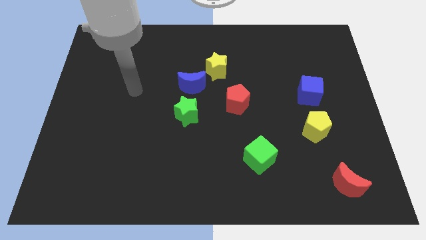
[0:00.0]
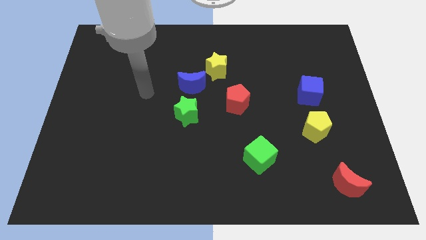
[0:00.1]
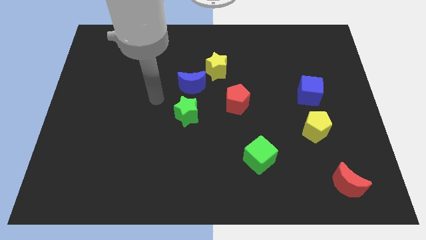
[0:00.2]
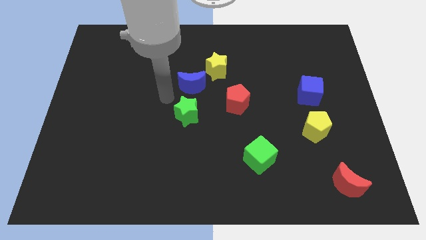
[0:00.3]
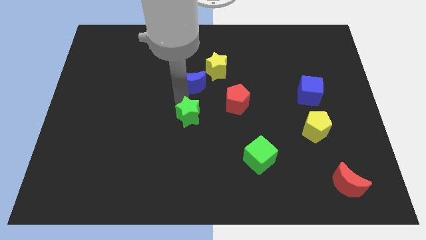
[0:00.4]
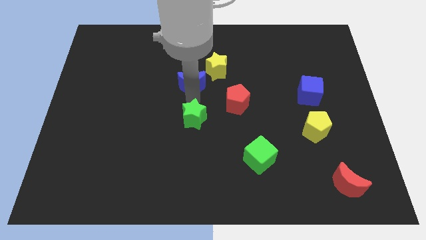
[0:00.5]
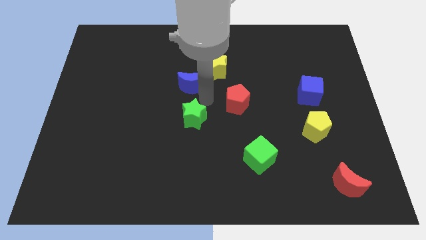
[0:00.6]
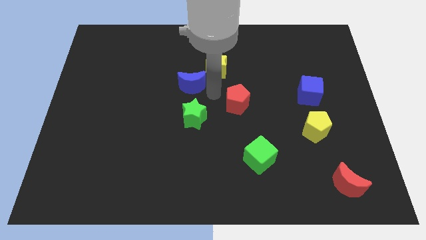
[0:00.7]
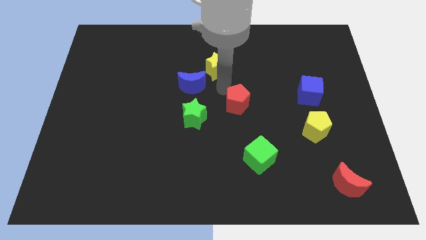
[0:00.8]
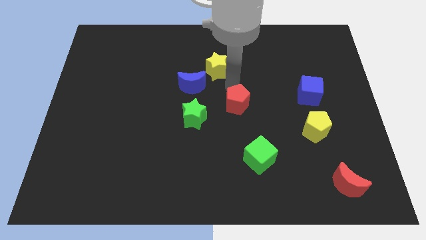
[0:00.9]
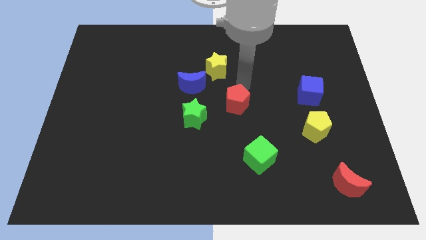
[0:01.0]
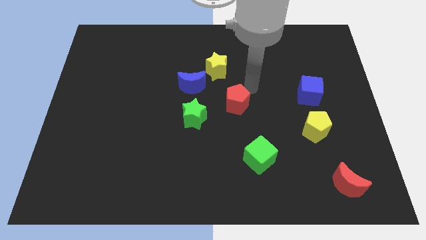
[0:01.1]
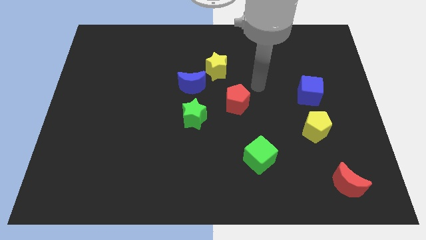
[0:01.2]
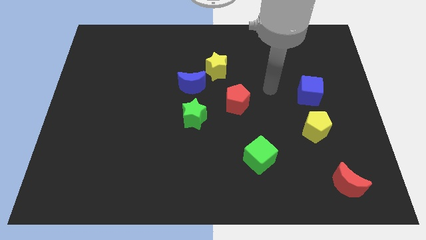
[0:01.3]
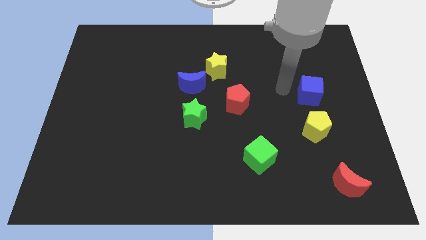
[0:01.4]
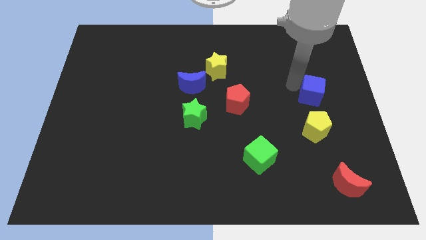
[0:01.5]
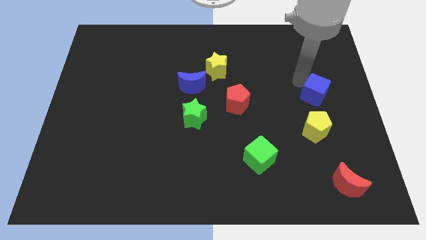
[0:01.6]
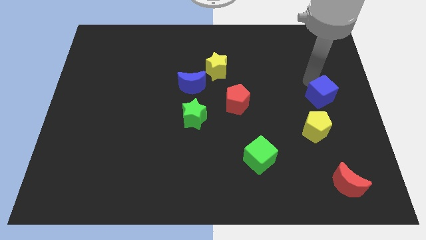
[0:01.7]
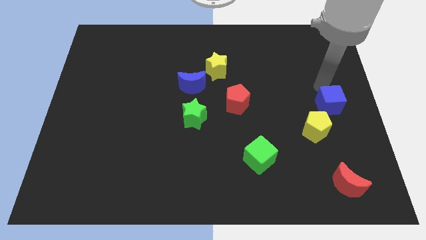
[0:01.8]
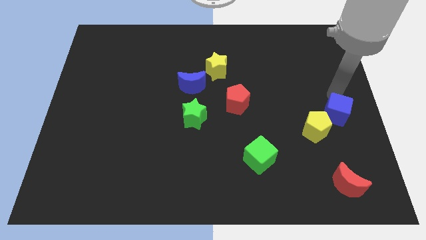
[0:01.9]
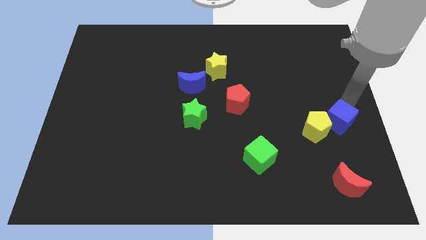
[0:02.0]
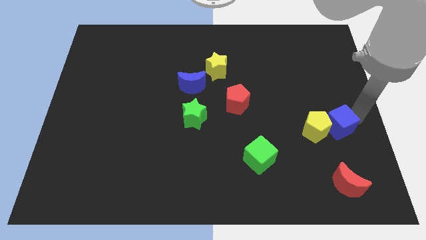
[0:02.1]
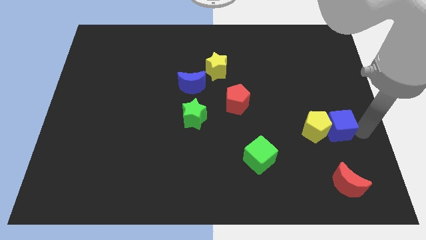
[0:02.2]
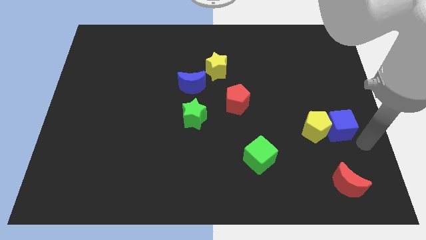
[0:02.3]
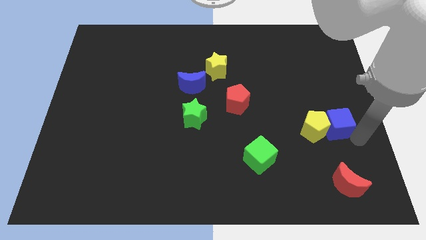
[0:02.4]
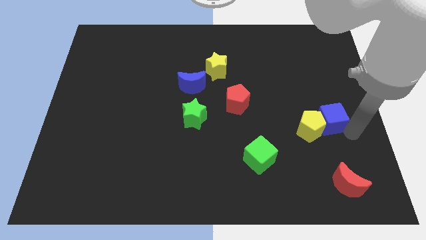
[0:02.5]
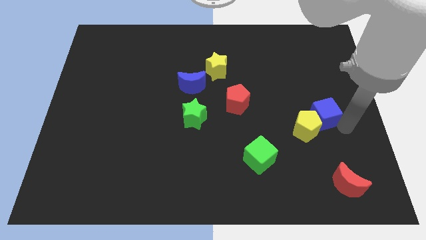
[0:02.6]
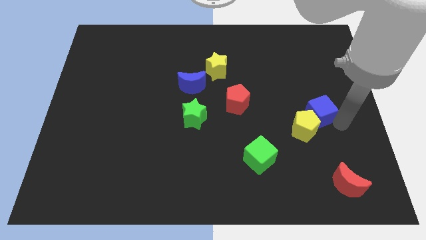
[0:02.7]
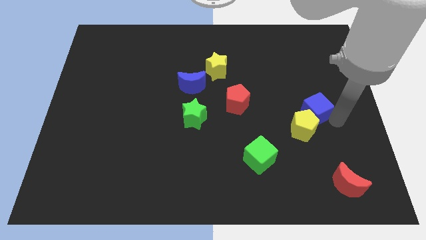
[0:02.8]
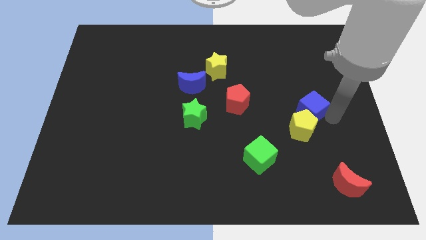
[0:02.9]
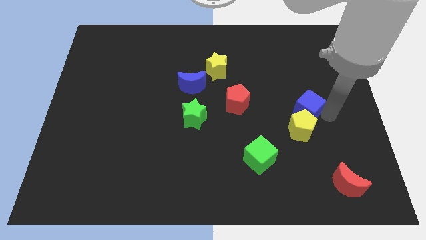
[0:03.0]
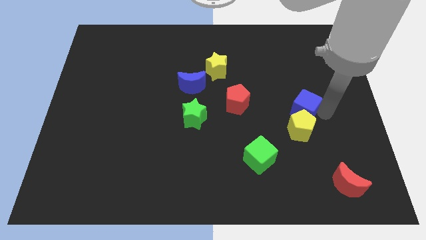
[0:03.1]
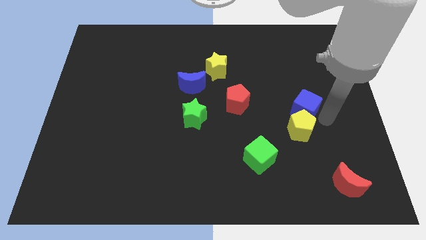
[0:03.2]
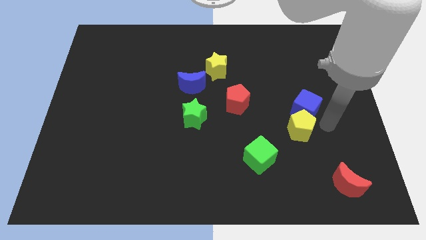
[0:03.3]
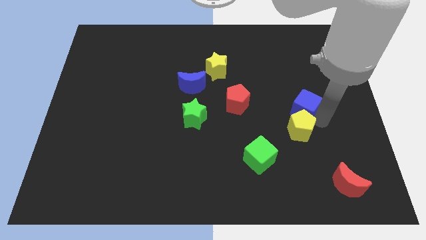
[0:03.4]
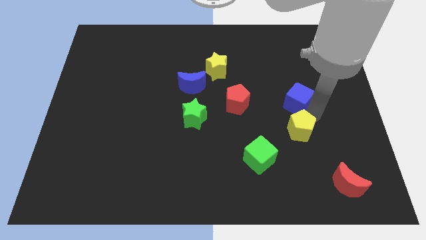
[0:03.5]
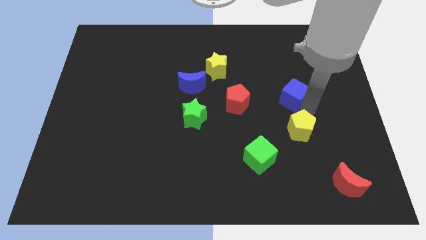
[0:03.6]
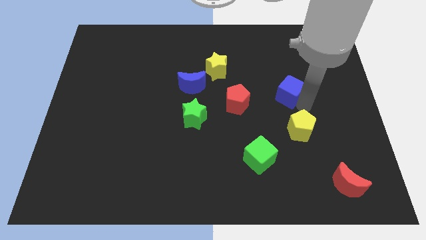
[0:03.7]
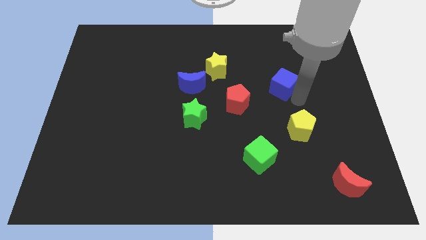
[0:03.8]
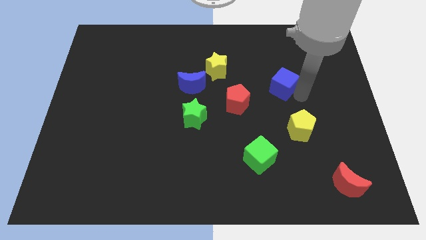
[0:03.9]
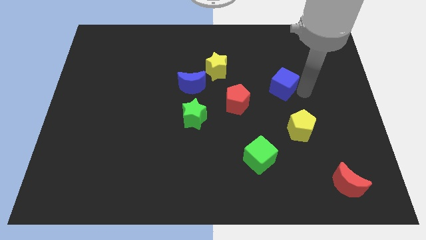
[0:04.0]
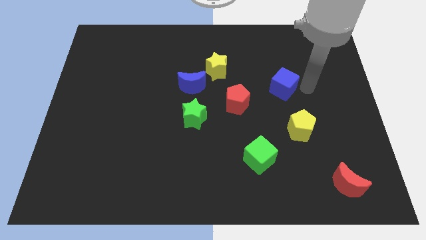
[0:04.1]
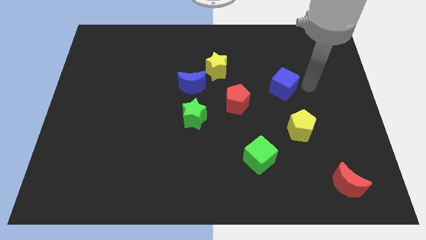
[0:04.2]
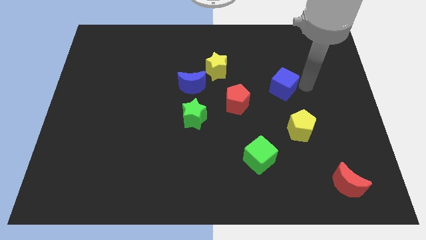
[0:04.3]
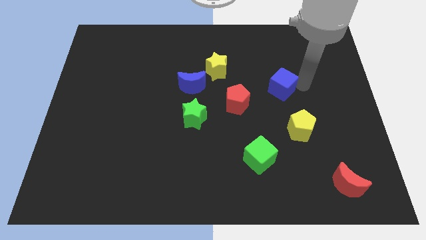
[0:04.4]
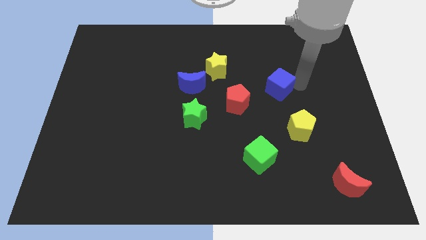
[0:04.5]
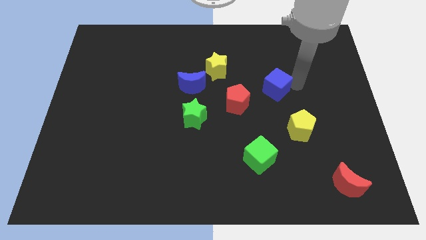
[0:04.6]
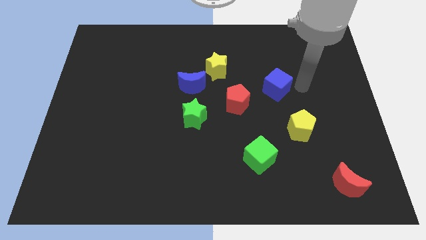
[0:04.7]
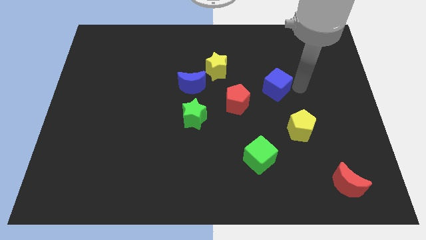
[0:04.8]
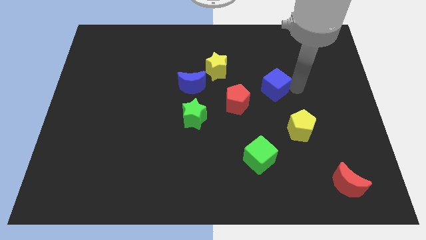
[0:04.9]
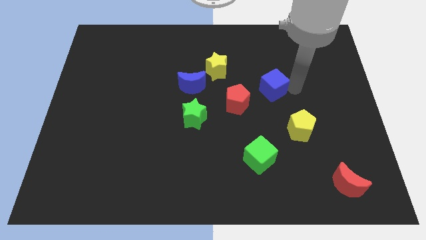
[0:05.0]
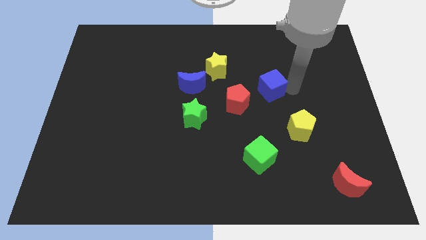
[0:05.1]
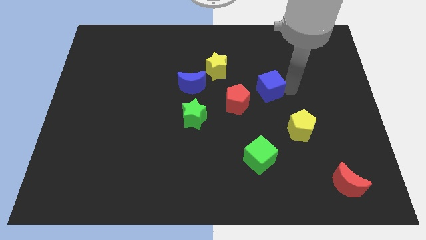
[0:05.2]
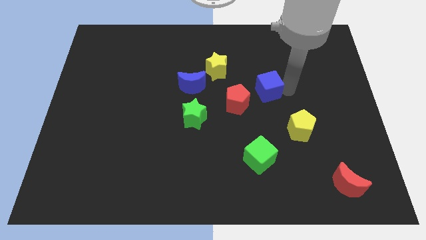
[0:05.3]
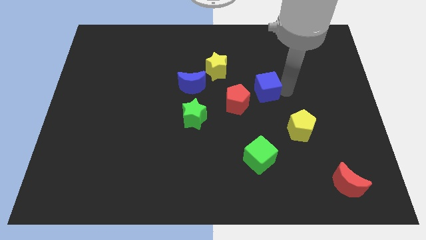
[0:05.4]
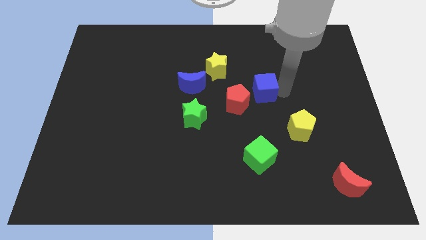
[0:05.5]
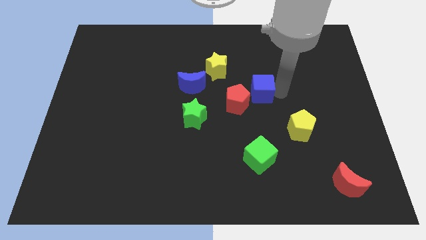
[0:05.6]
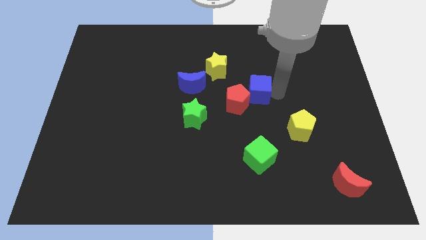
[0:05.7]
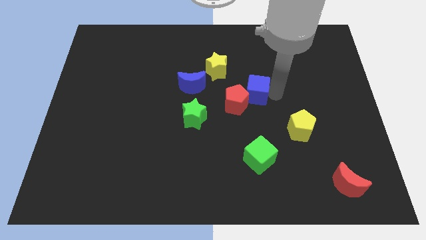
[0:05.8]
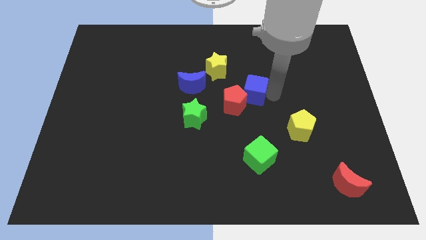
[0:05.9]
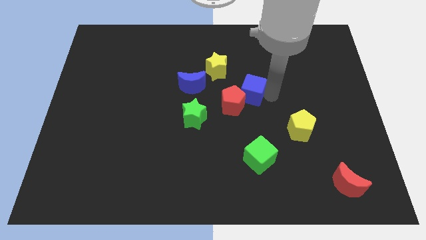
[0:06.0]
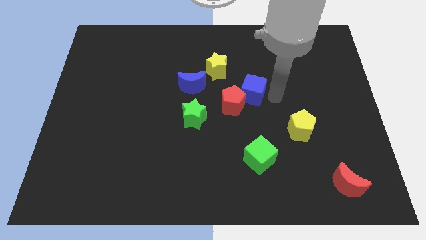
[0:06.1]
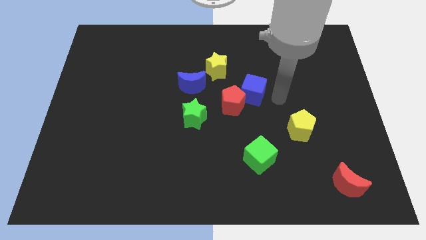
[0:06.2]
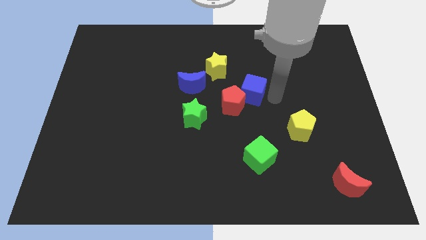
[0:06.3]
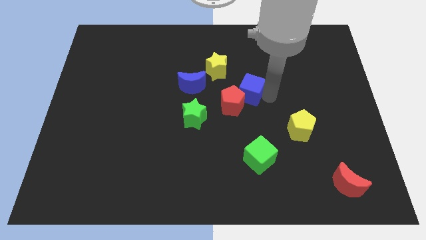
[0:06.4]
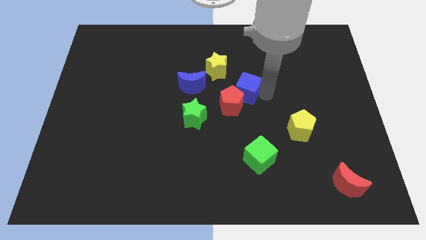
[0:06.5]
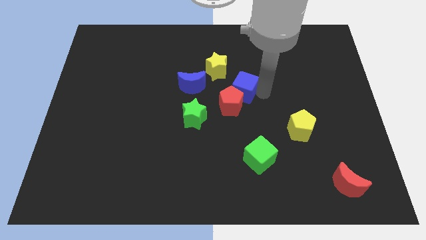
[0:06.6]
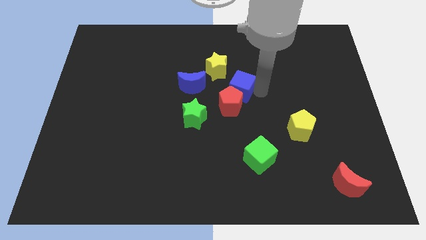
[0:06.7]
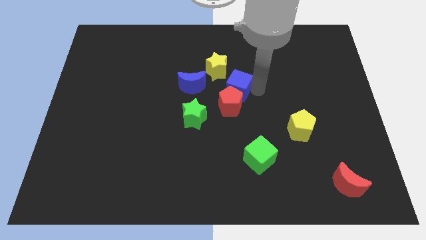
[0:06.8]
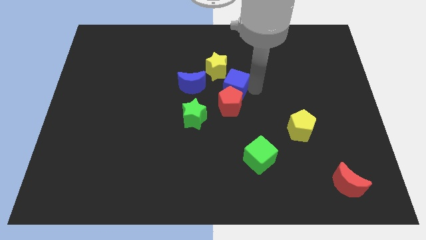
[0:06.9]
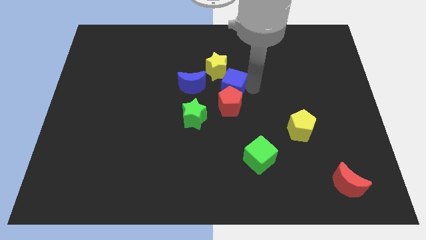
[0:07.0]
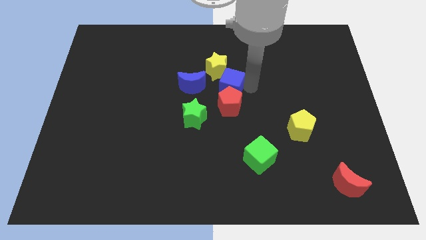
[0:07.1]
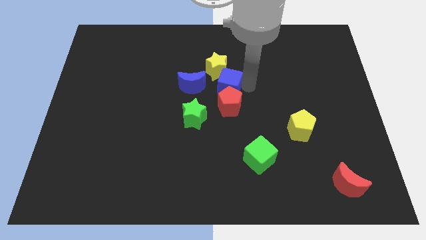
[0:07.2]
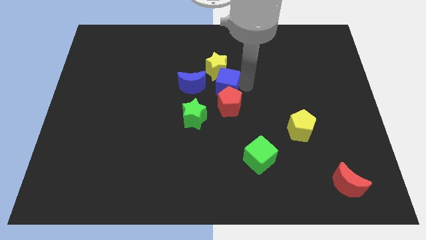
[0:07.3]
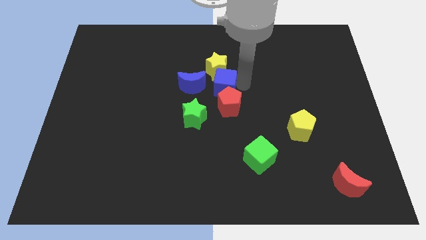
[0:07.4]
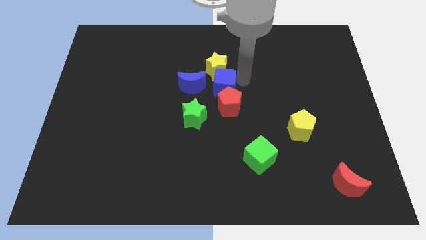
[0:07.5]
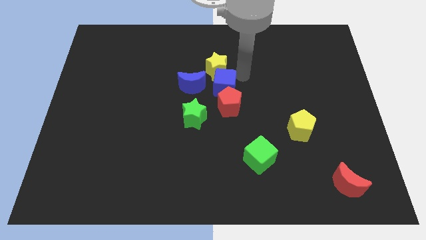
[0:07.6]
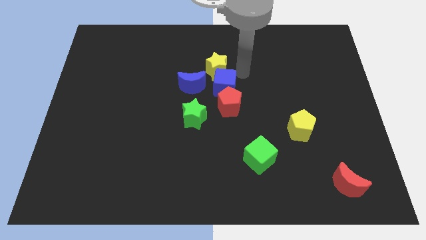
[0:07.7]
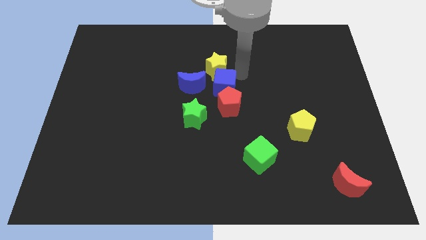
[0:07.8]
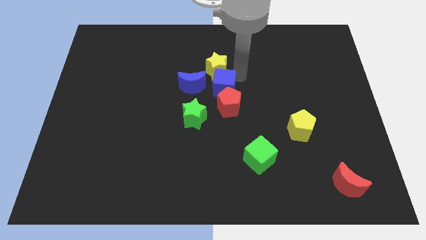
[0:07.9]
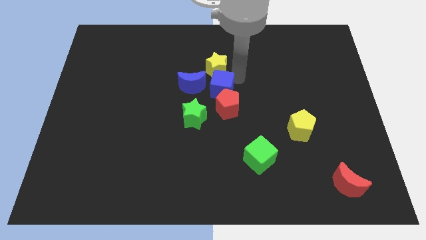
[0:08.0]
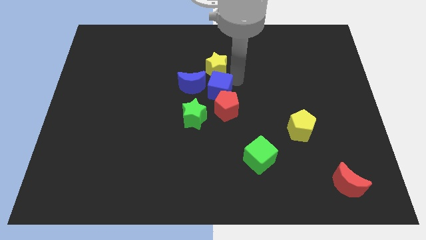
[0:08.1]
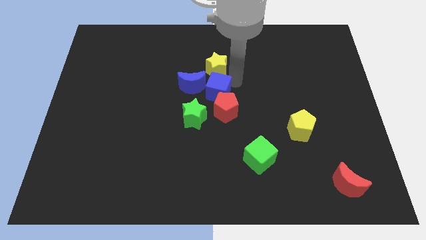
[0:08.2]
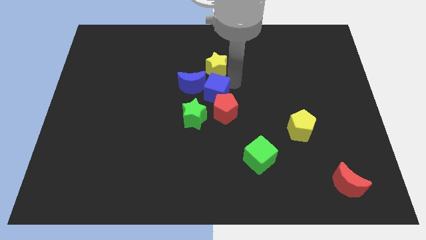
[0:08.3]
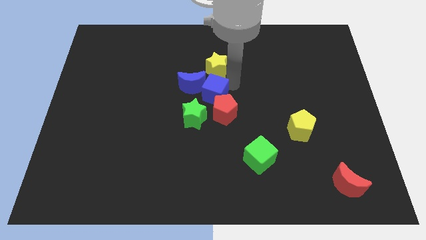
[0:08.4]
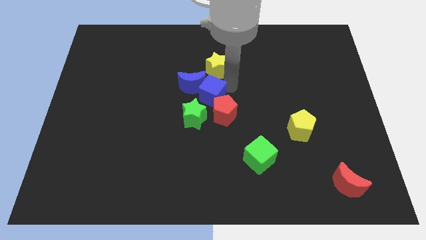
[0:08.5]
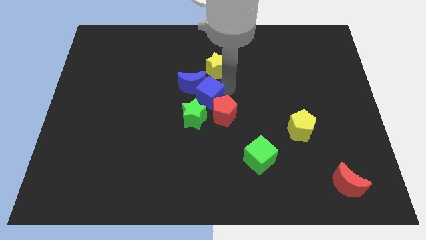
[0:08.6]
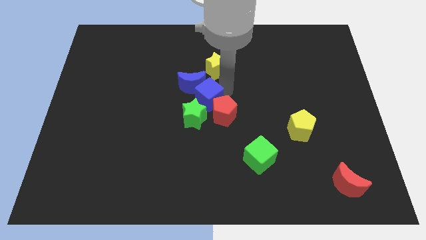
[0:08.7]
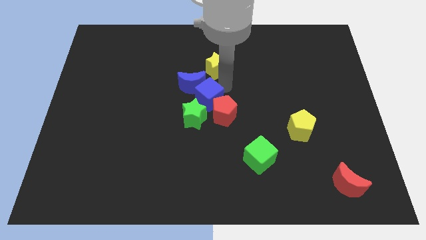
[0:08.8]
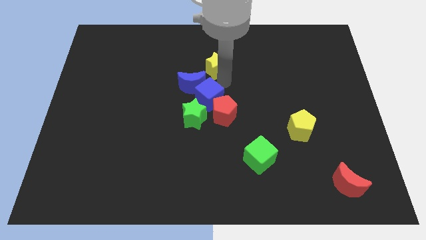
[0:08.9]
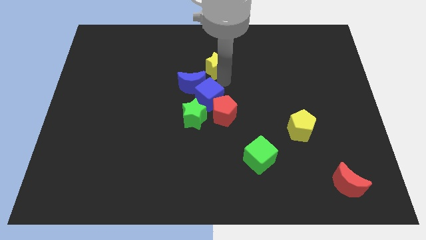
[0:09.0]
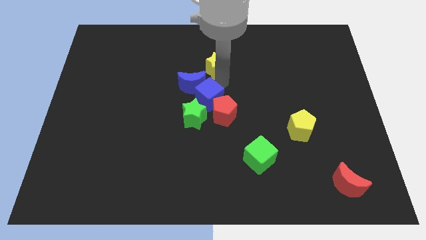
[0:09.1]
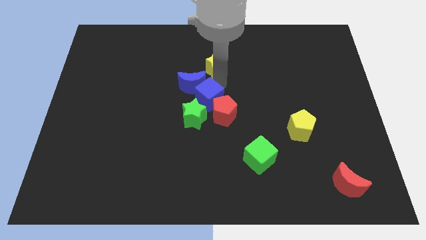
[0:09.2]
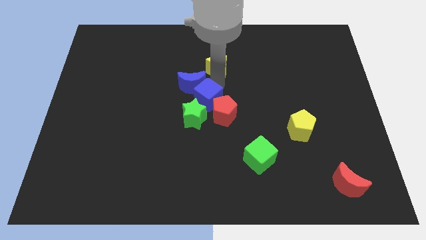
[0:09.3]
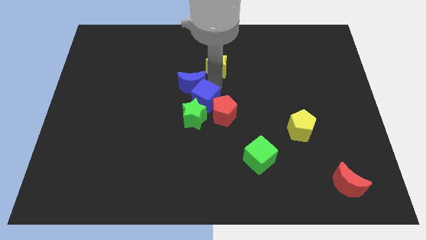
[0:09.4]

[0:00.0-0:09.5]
push the blue cube next to the green star
